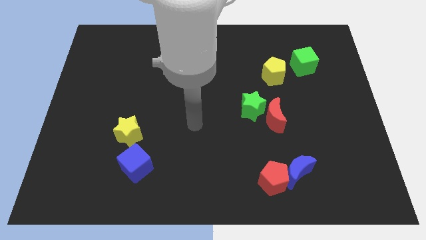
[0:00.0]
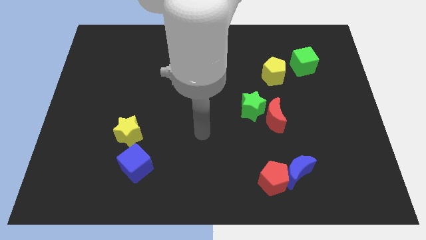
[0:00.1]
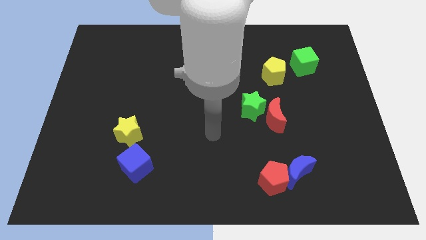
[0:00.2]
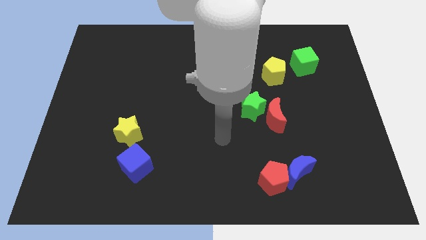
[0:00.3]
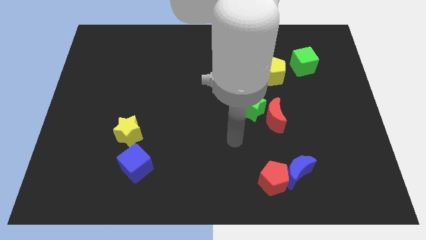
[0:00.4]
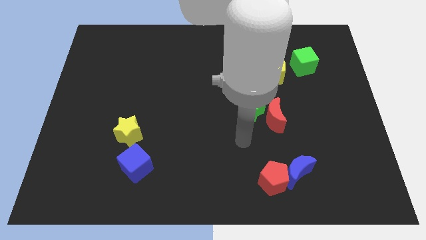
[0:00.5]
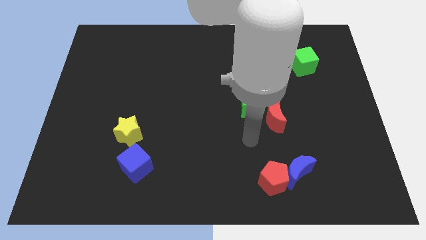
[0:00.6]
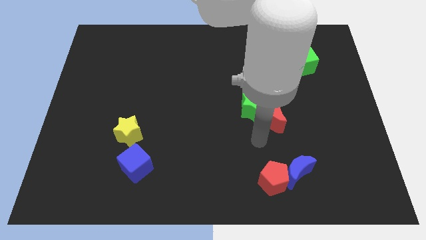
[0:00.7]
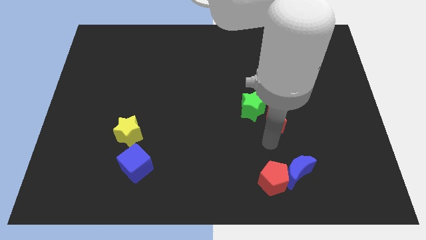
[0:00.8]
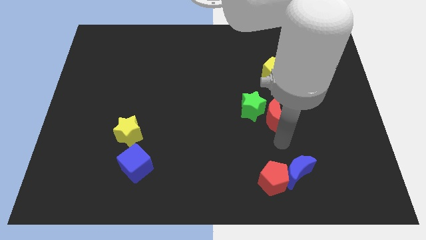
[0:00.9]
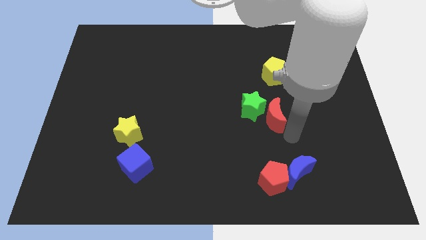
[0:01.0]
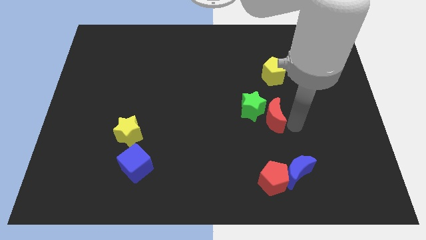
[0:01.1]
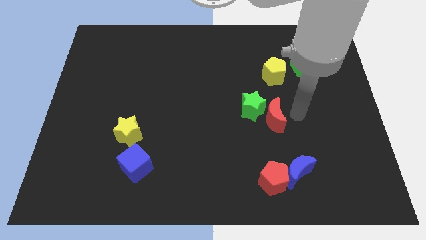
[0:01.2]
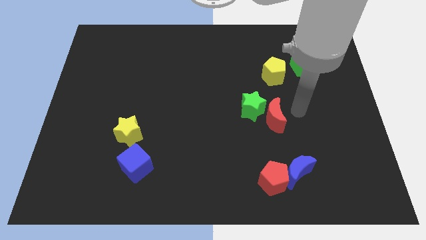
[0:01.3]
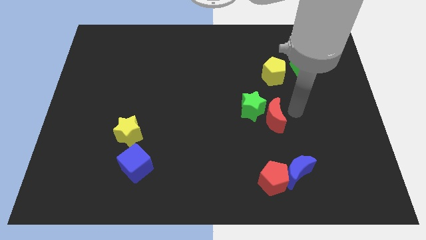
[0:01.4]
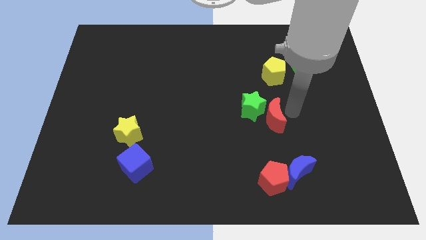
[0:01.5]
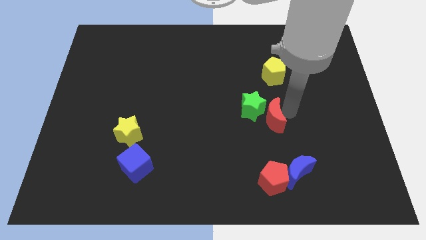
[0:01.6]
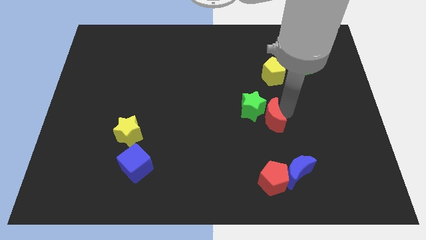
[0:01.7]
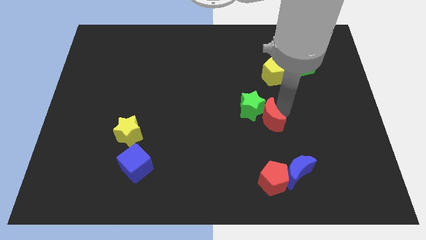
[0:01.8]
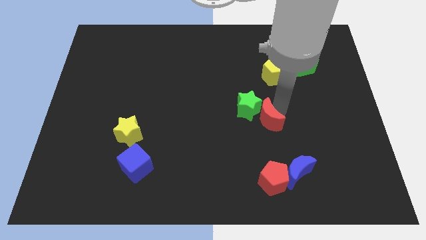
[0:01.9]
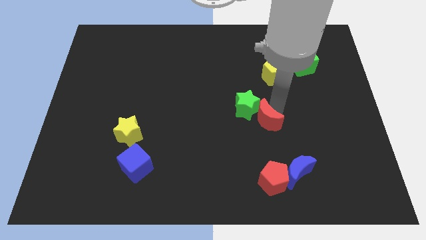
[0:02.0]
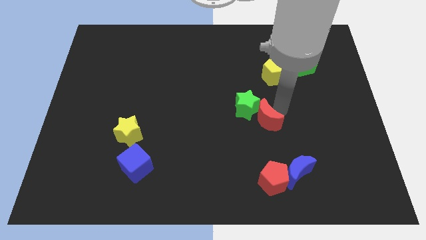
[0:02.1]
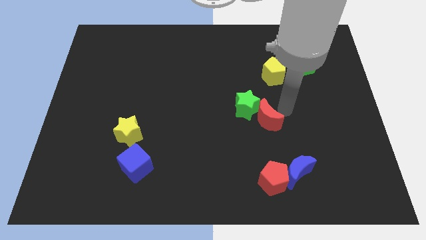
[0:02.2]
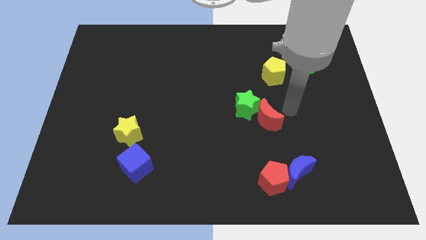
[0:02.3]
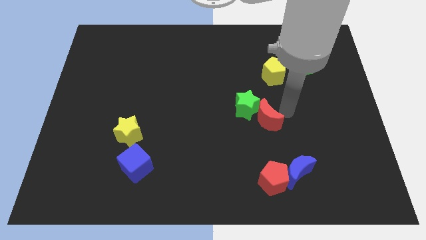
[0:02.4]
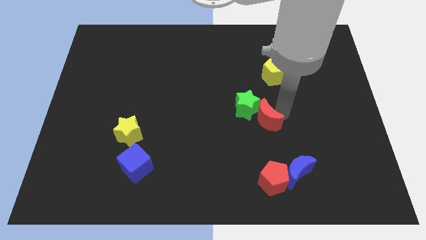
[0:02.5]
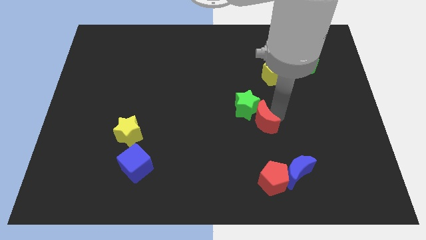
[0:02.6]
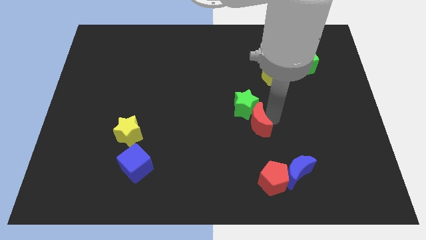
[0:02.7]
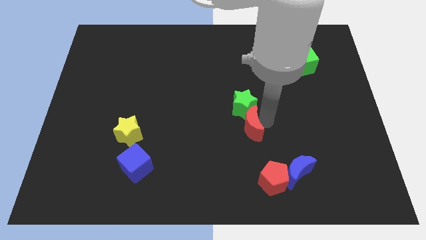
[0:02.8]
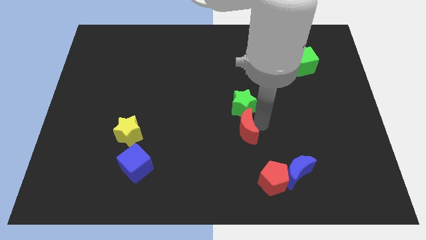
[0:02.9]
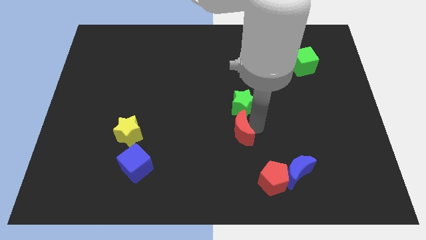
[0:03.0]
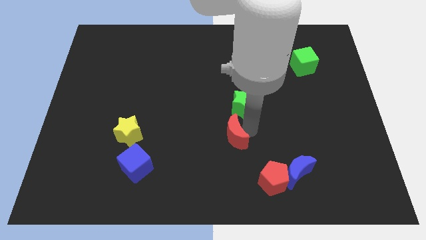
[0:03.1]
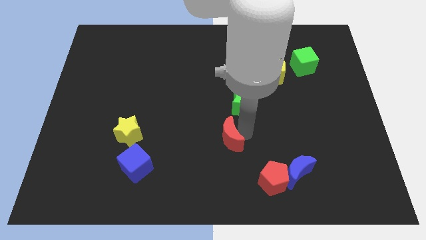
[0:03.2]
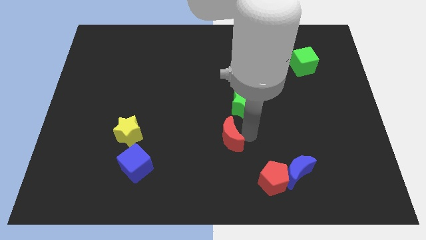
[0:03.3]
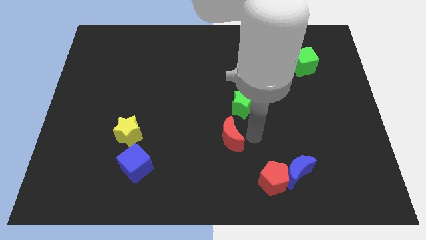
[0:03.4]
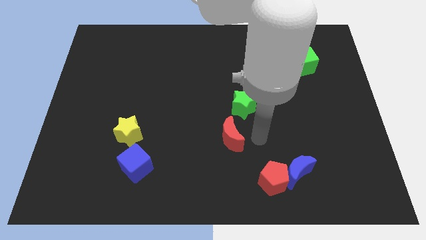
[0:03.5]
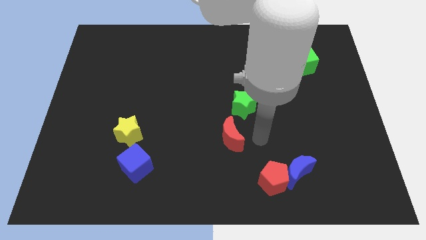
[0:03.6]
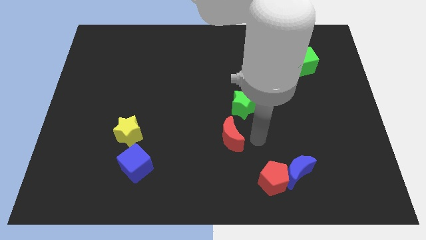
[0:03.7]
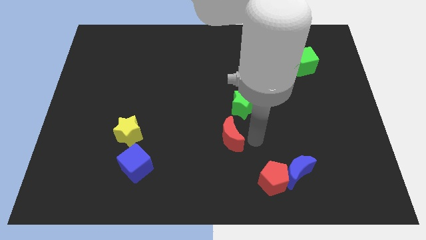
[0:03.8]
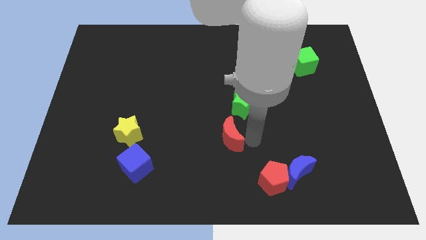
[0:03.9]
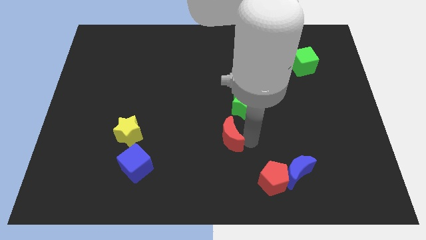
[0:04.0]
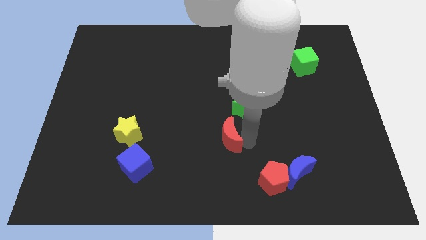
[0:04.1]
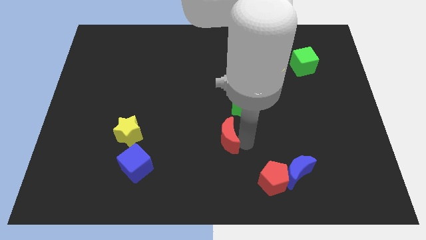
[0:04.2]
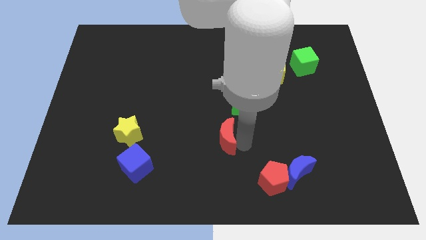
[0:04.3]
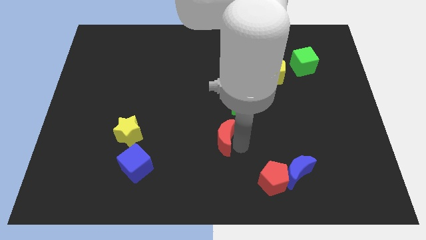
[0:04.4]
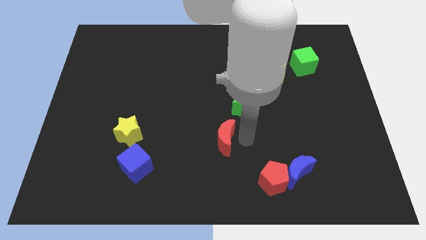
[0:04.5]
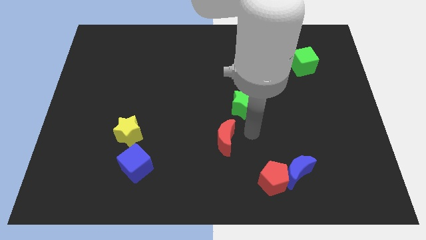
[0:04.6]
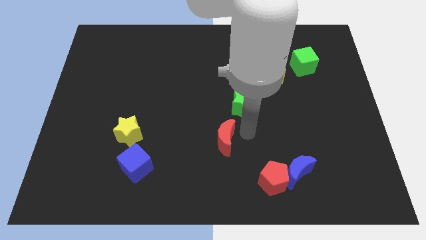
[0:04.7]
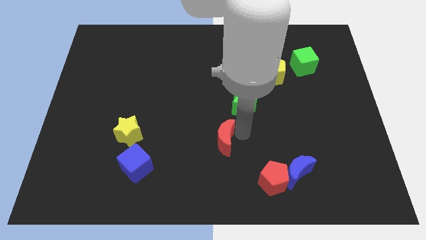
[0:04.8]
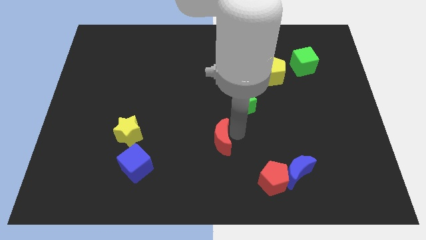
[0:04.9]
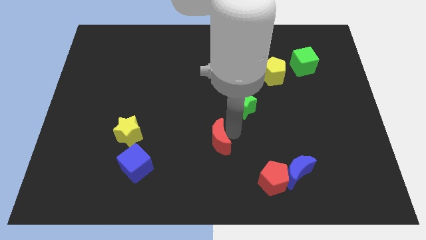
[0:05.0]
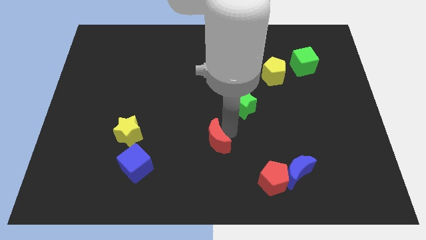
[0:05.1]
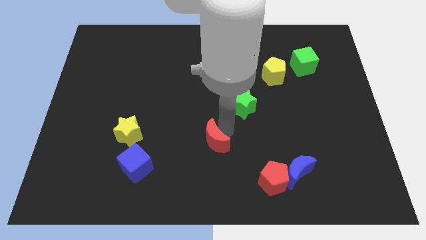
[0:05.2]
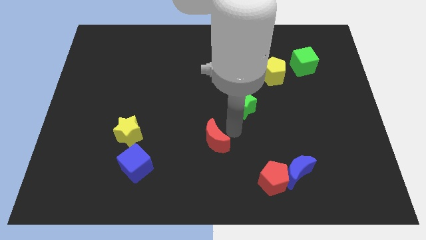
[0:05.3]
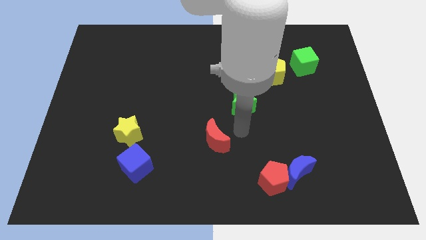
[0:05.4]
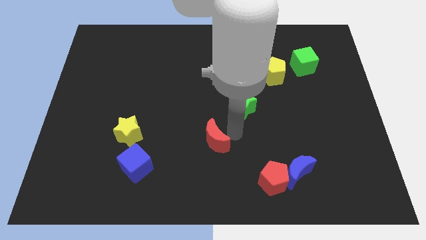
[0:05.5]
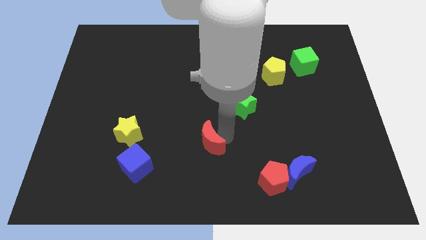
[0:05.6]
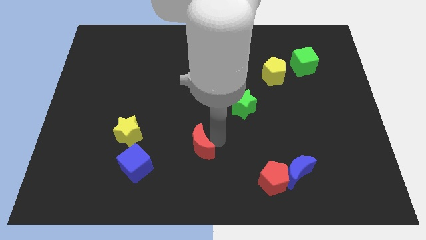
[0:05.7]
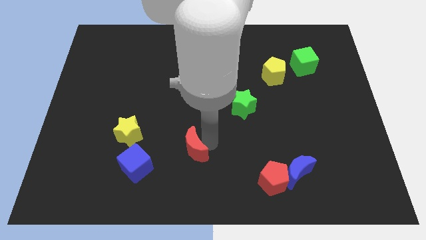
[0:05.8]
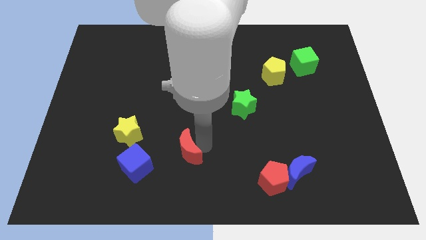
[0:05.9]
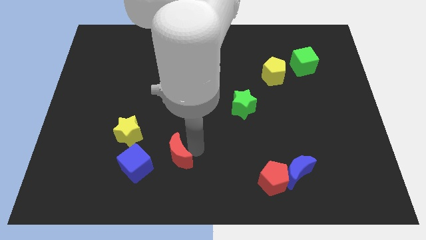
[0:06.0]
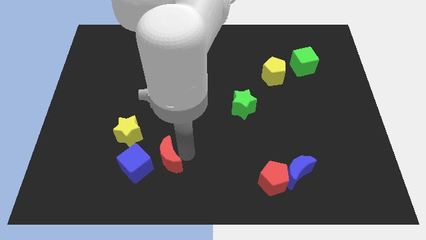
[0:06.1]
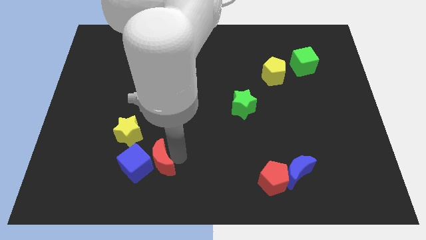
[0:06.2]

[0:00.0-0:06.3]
move the red moon towards the blue cube

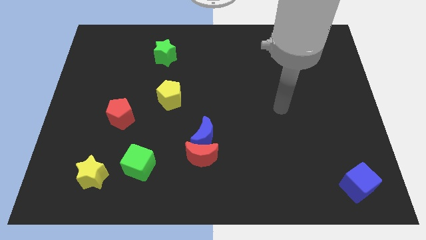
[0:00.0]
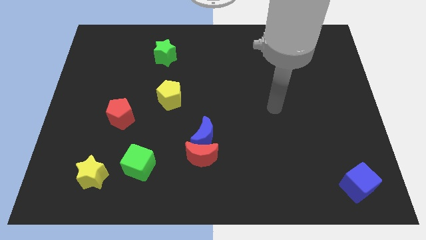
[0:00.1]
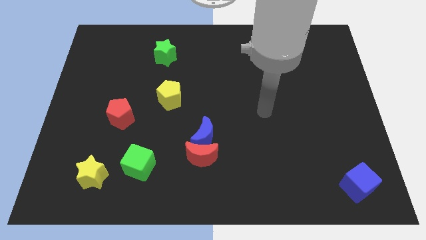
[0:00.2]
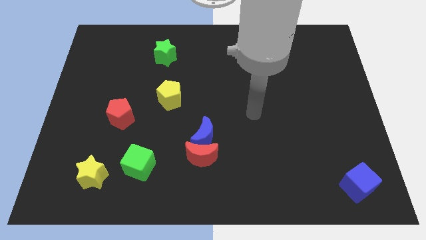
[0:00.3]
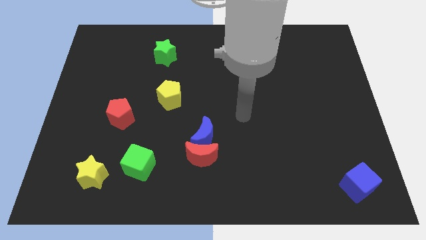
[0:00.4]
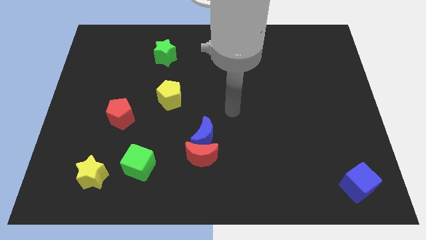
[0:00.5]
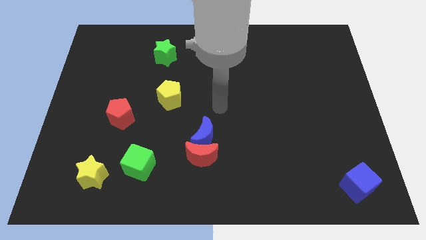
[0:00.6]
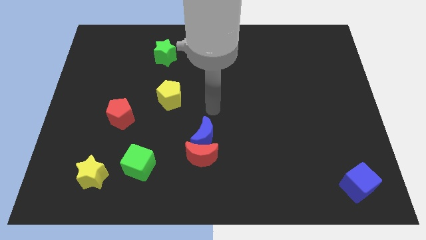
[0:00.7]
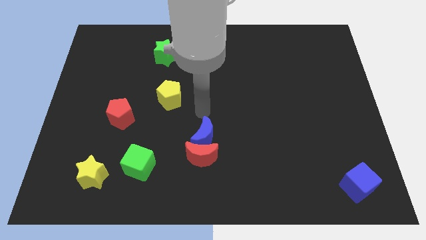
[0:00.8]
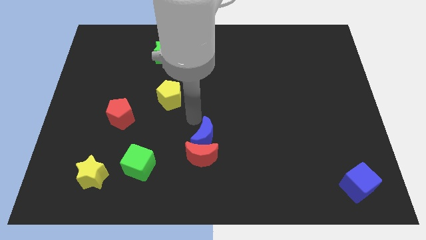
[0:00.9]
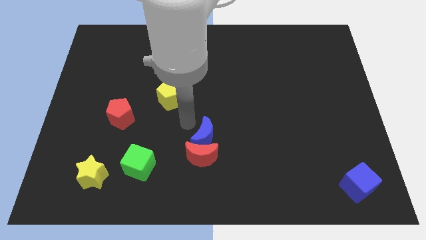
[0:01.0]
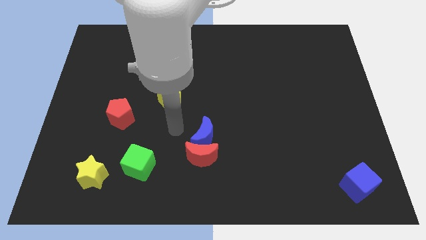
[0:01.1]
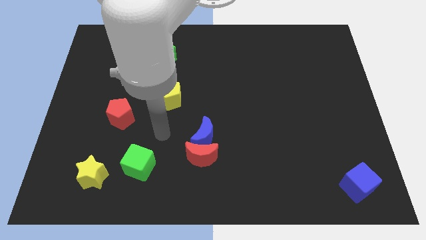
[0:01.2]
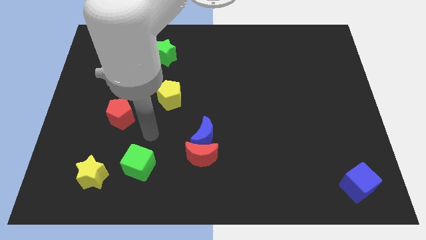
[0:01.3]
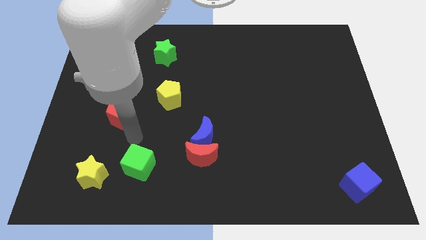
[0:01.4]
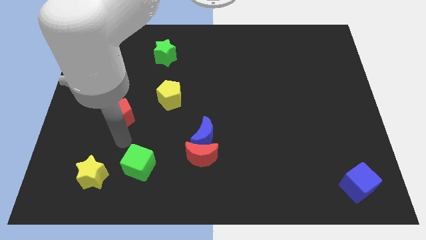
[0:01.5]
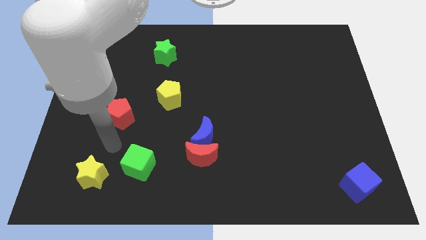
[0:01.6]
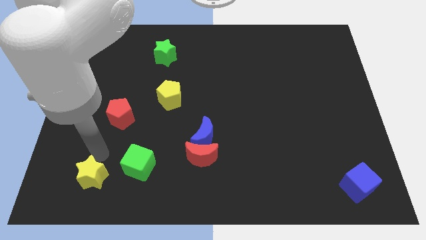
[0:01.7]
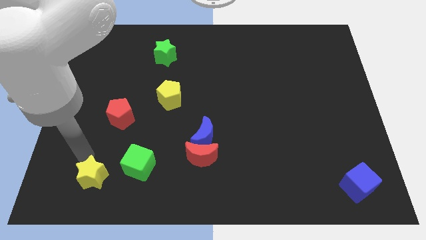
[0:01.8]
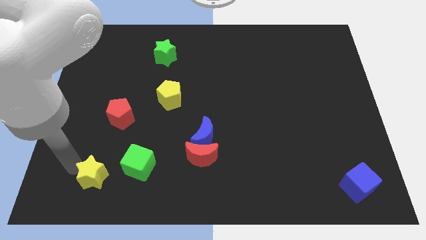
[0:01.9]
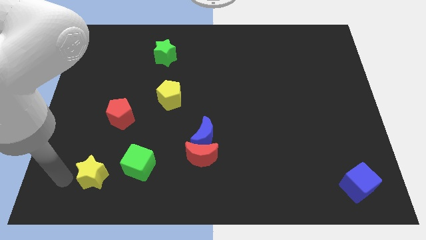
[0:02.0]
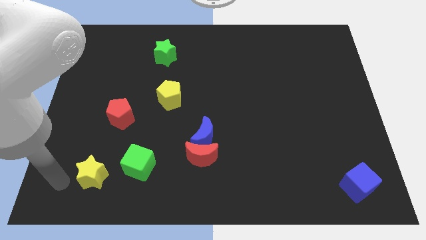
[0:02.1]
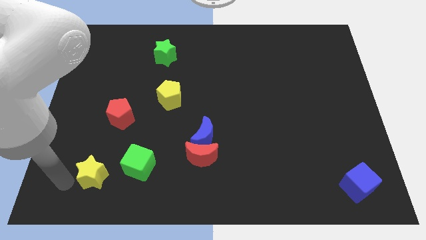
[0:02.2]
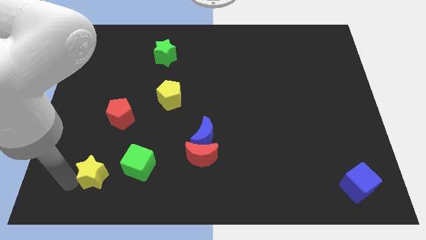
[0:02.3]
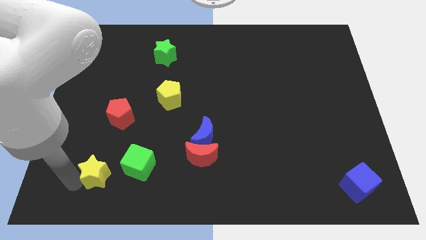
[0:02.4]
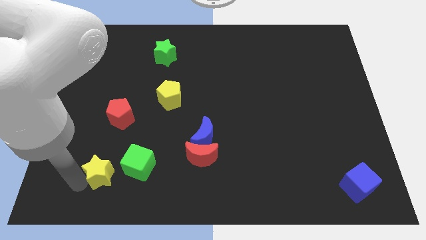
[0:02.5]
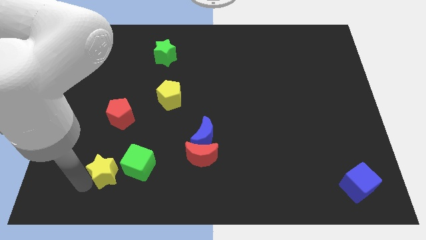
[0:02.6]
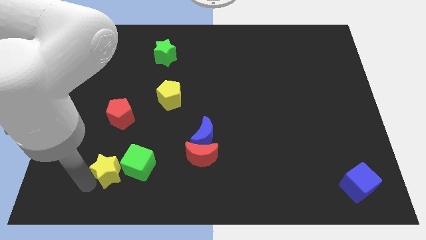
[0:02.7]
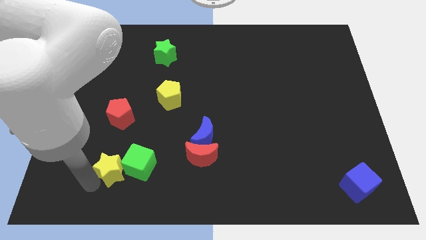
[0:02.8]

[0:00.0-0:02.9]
move the yellow star towards the green cube
